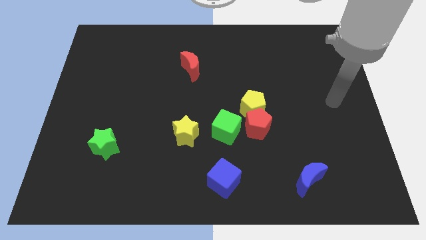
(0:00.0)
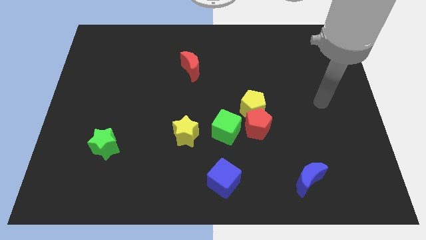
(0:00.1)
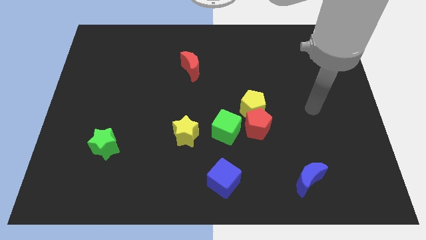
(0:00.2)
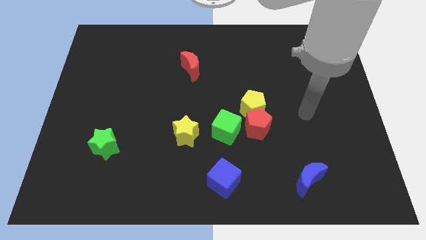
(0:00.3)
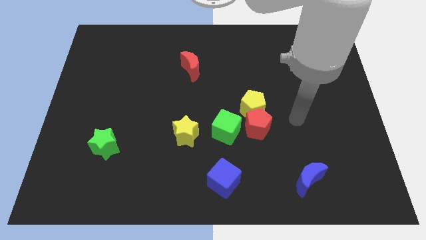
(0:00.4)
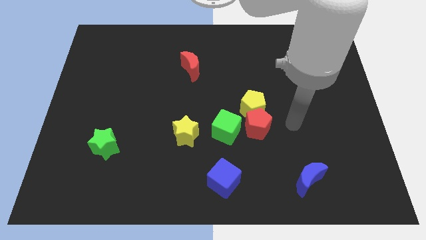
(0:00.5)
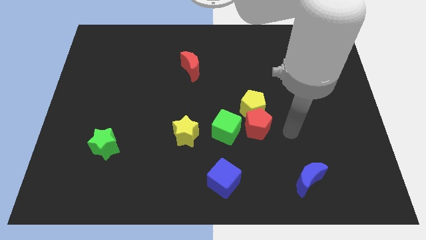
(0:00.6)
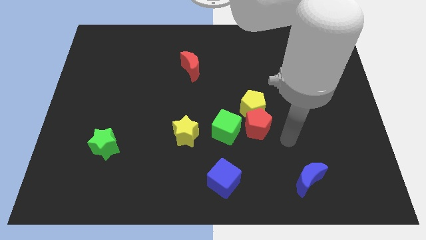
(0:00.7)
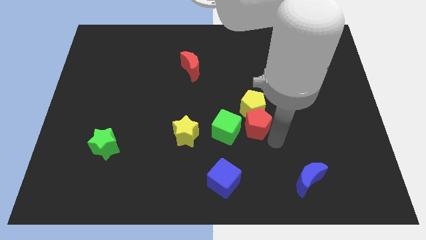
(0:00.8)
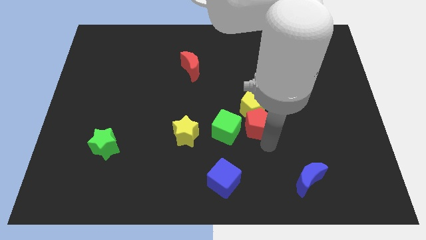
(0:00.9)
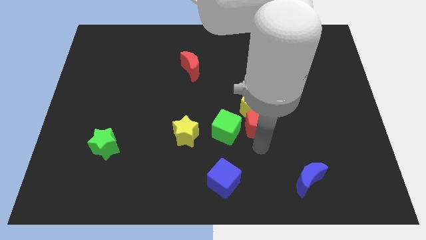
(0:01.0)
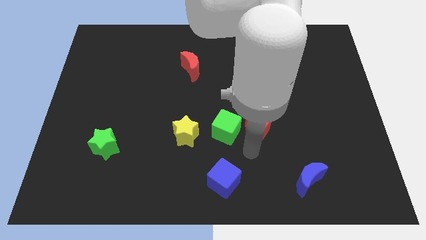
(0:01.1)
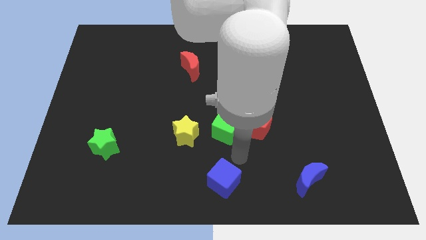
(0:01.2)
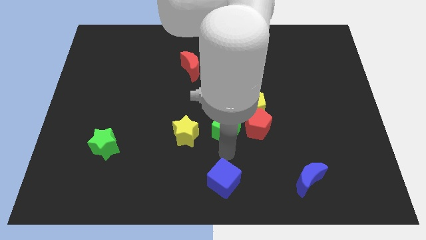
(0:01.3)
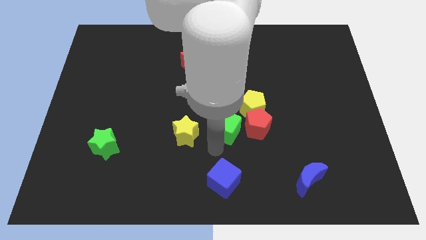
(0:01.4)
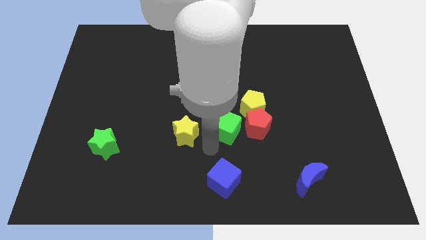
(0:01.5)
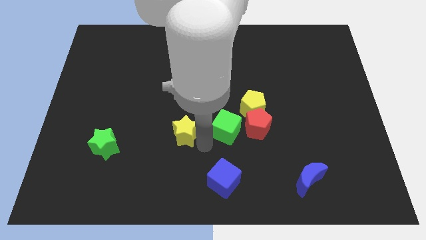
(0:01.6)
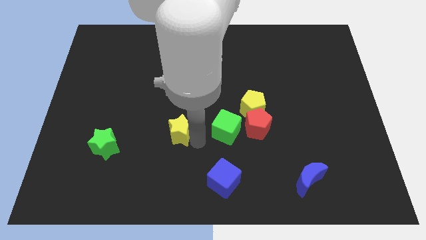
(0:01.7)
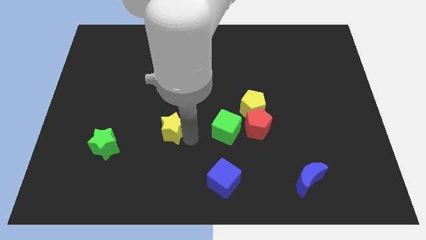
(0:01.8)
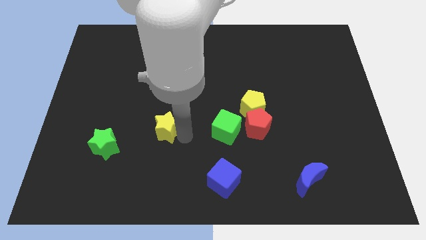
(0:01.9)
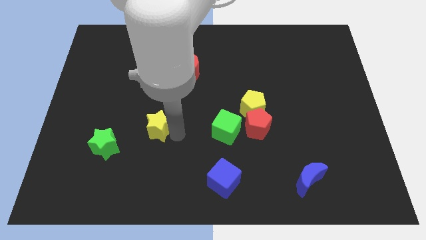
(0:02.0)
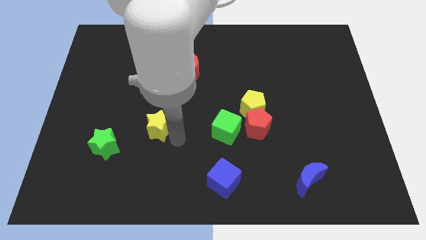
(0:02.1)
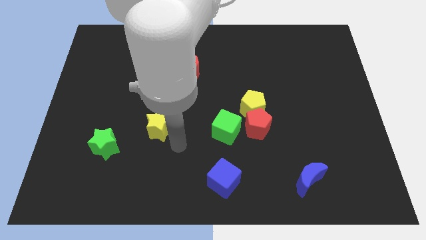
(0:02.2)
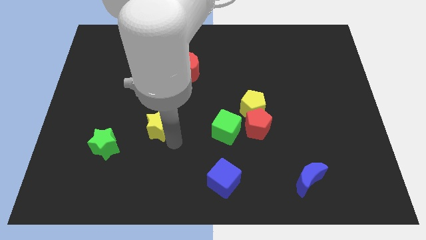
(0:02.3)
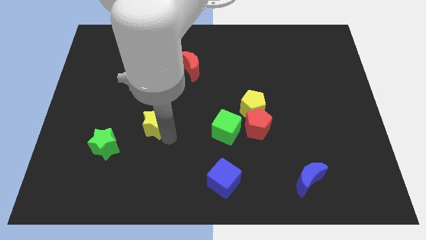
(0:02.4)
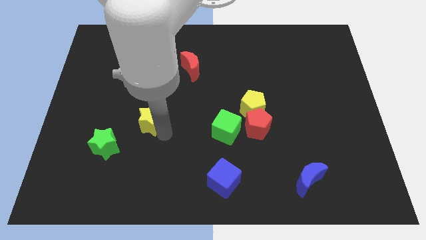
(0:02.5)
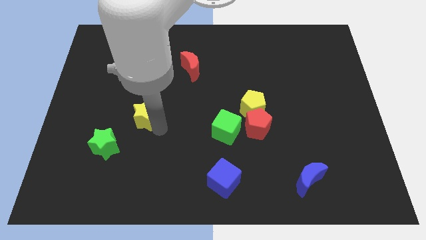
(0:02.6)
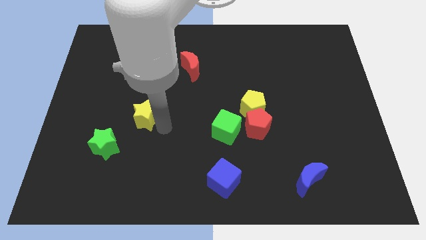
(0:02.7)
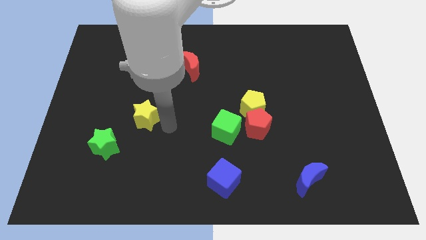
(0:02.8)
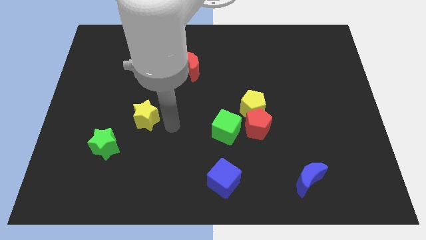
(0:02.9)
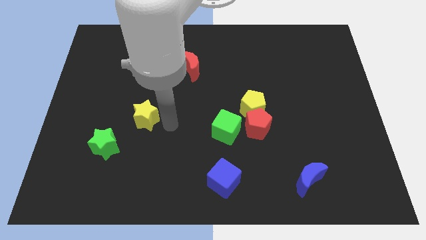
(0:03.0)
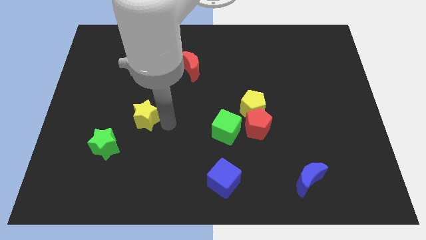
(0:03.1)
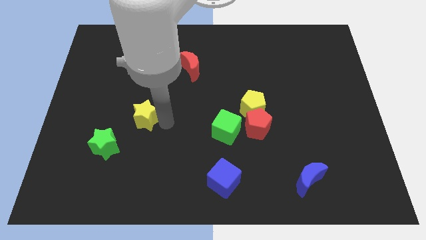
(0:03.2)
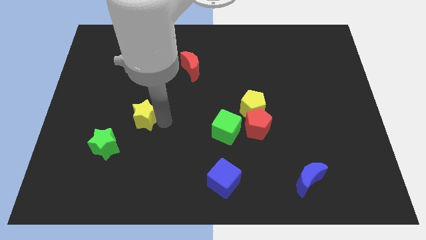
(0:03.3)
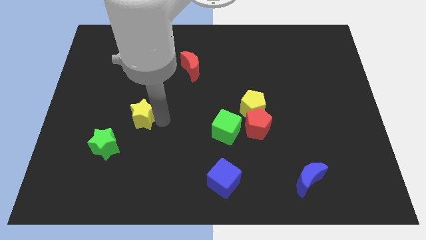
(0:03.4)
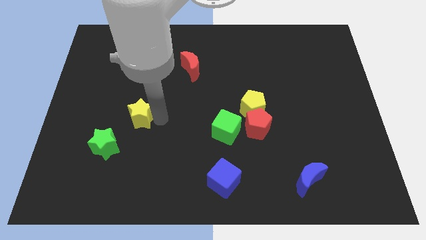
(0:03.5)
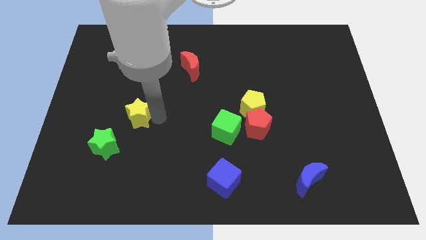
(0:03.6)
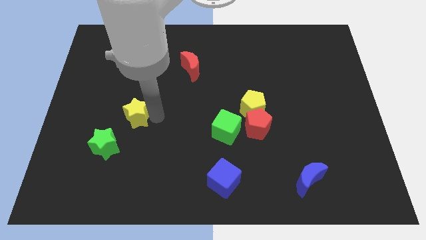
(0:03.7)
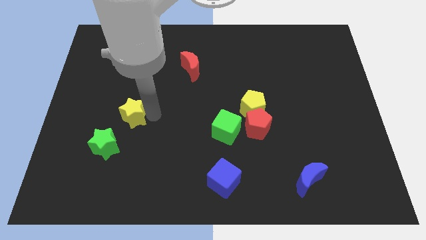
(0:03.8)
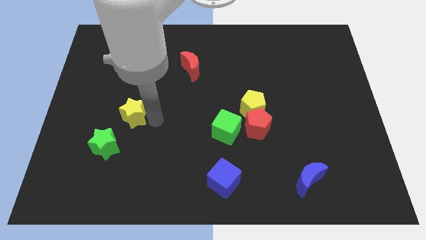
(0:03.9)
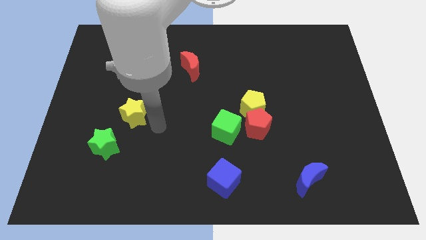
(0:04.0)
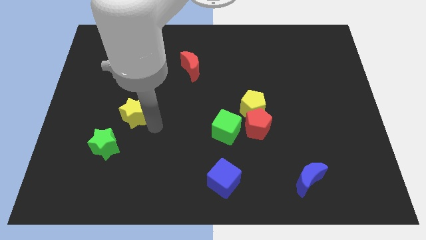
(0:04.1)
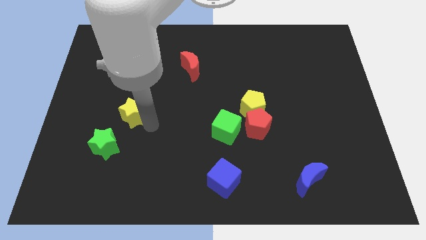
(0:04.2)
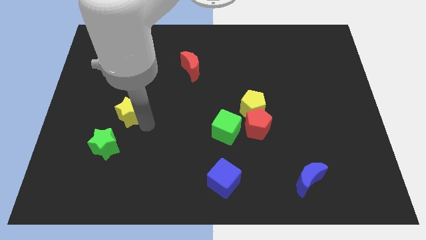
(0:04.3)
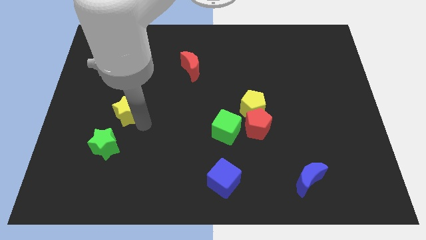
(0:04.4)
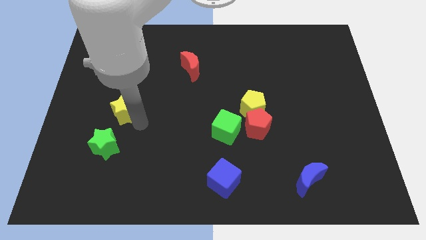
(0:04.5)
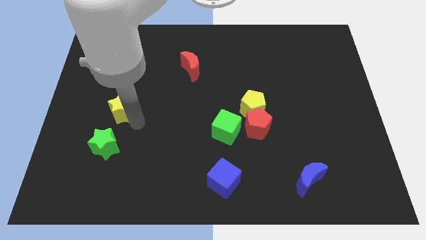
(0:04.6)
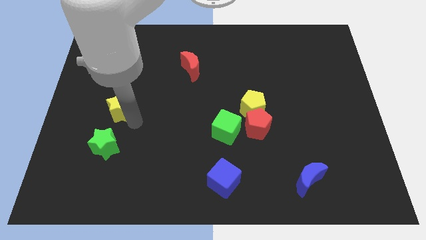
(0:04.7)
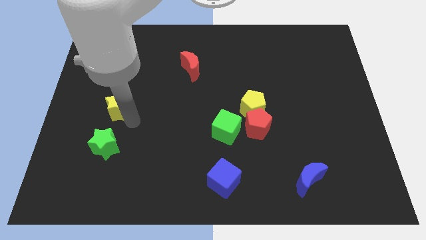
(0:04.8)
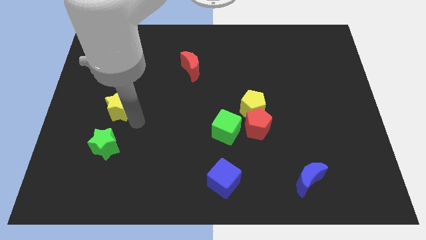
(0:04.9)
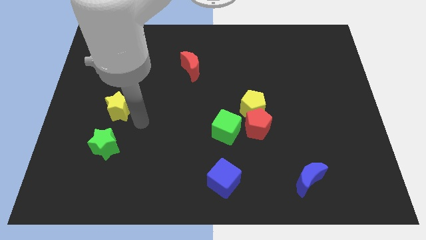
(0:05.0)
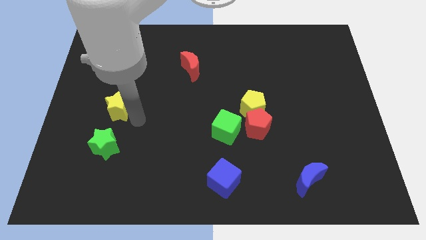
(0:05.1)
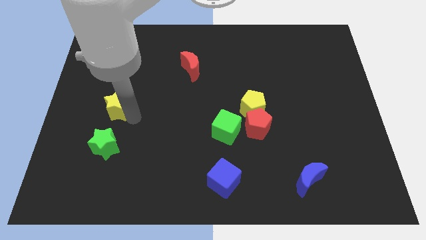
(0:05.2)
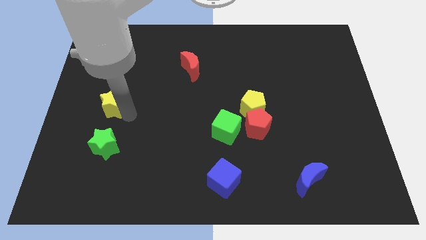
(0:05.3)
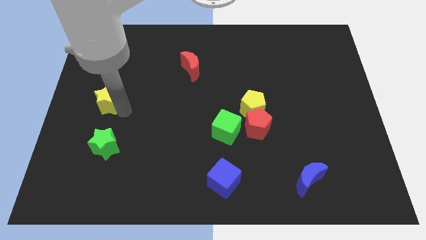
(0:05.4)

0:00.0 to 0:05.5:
move the yellow star to the left side
